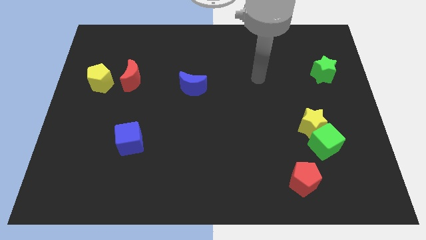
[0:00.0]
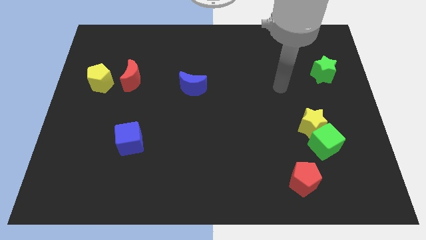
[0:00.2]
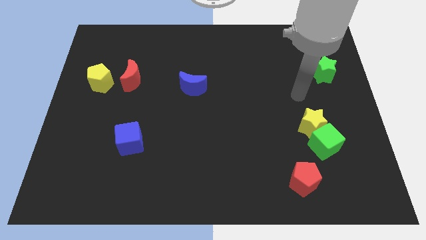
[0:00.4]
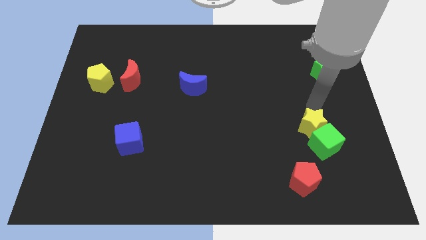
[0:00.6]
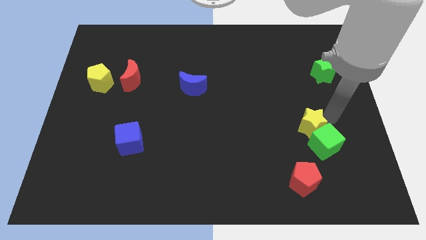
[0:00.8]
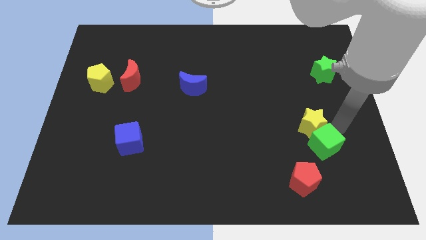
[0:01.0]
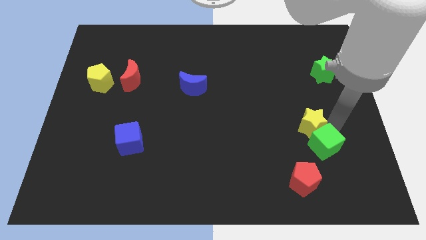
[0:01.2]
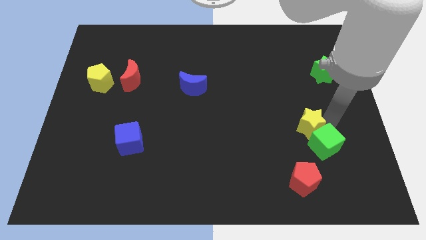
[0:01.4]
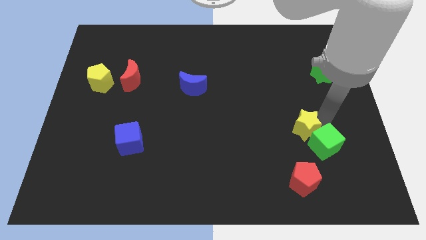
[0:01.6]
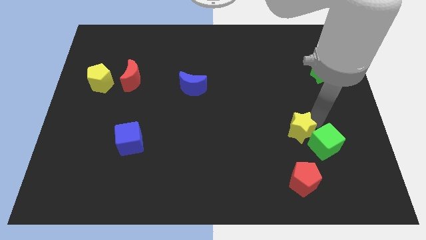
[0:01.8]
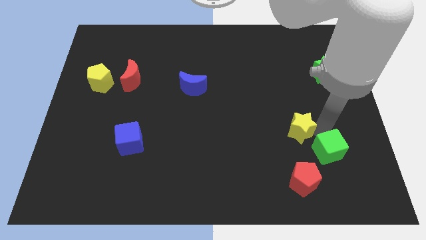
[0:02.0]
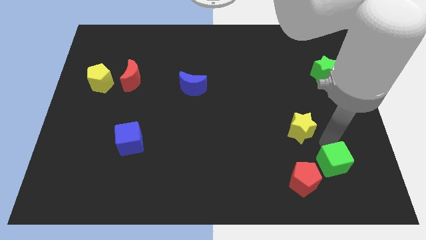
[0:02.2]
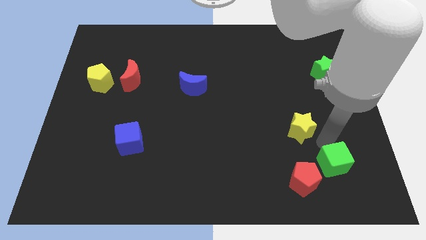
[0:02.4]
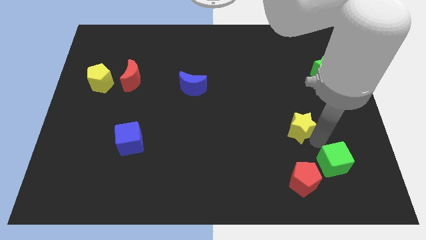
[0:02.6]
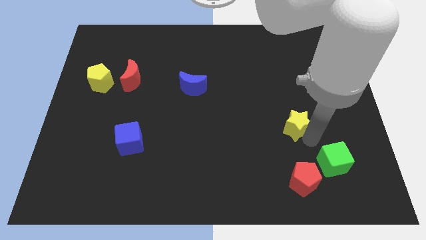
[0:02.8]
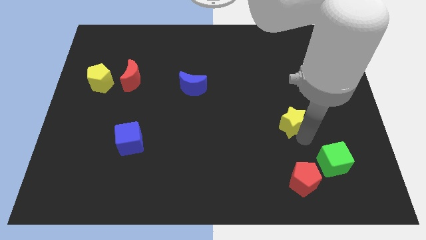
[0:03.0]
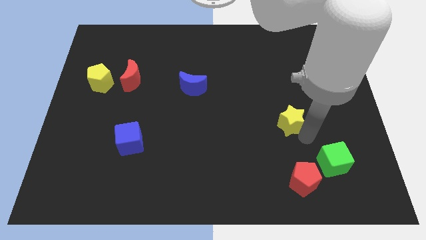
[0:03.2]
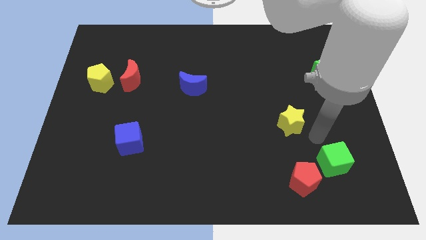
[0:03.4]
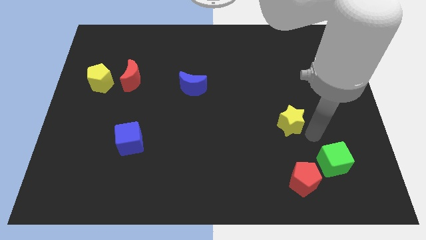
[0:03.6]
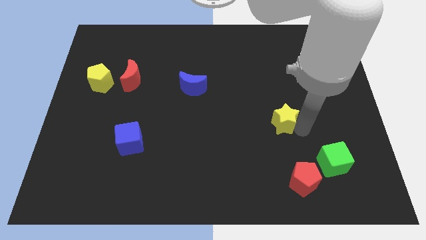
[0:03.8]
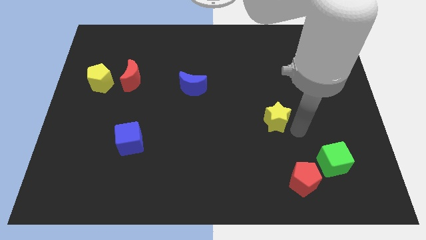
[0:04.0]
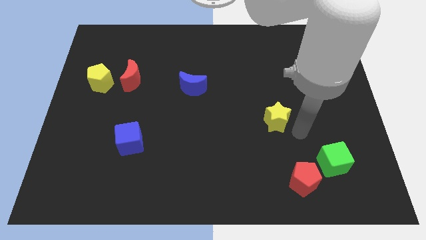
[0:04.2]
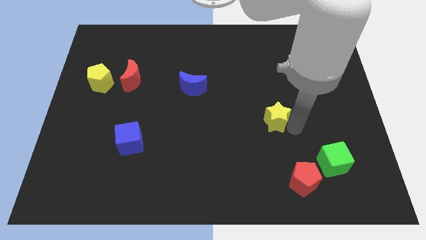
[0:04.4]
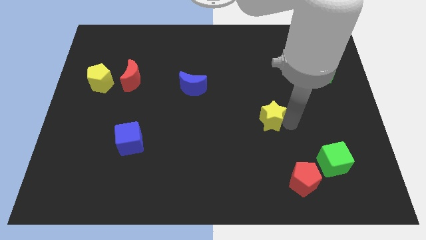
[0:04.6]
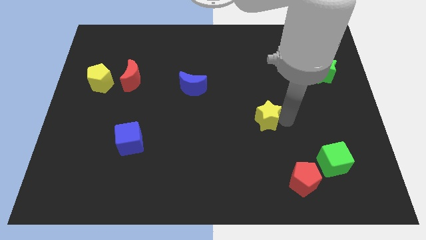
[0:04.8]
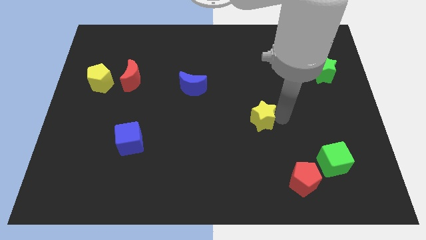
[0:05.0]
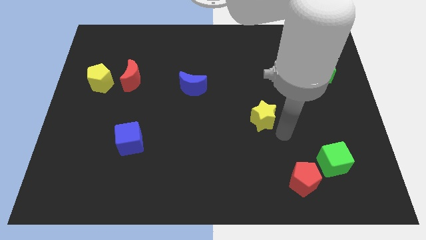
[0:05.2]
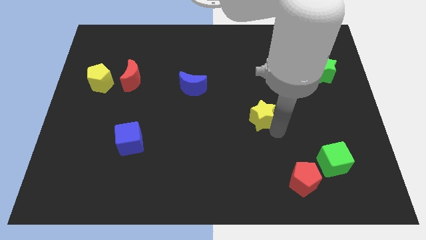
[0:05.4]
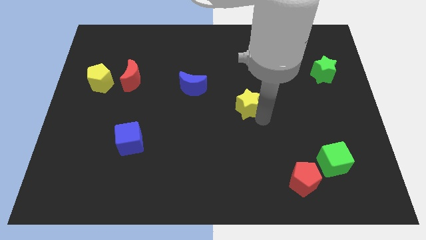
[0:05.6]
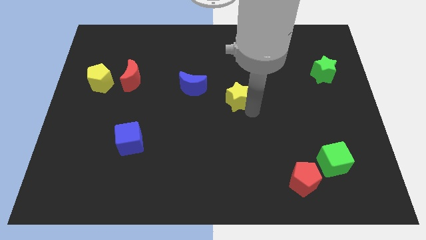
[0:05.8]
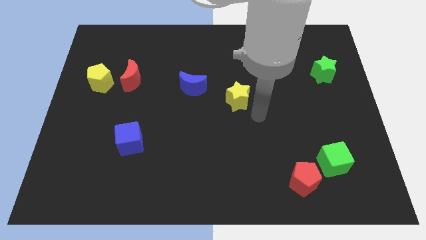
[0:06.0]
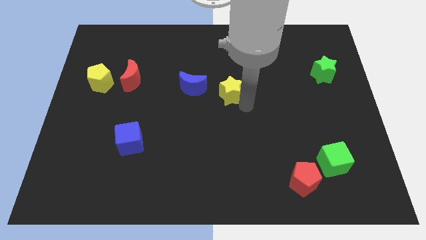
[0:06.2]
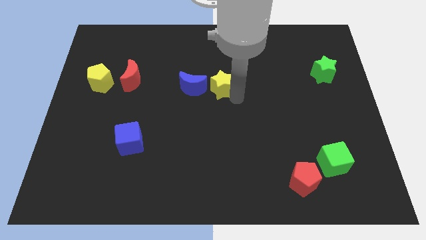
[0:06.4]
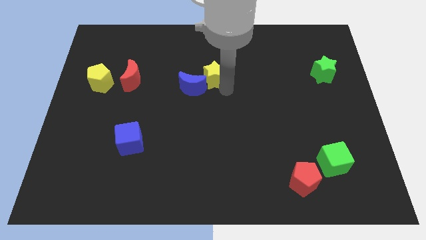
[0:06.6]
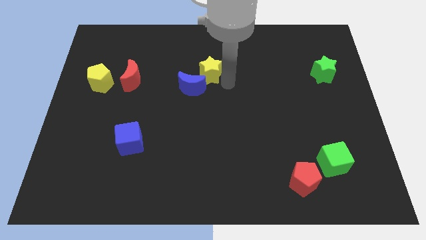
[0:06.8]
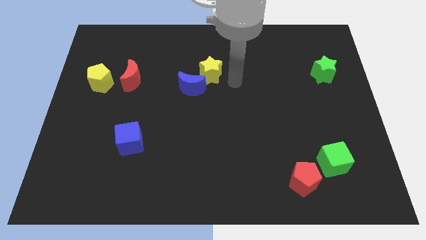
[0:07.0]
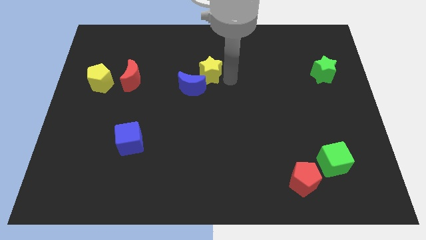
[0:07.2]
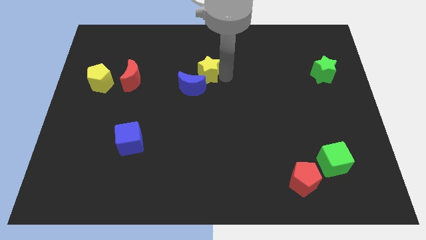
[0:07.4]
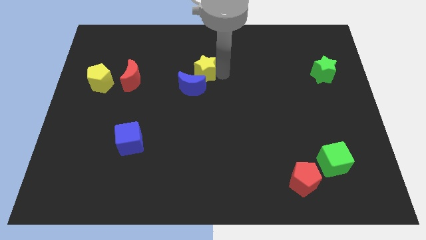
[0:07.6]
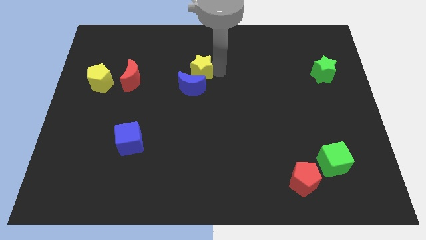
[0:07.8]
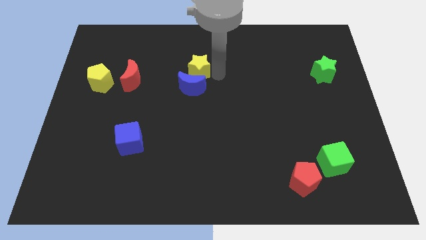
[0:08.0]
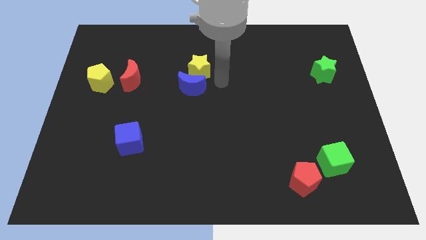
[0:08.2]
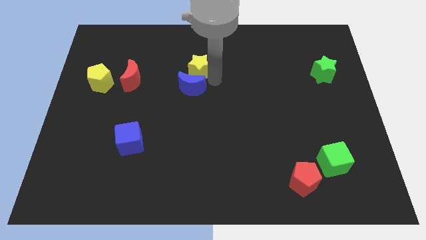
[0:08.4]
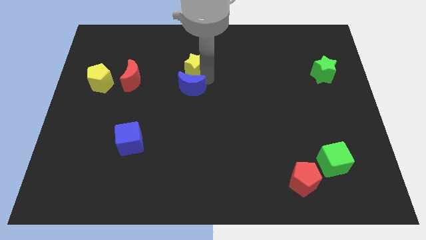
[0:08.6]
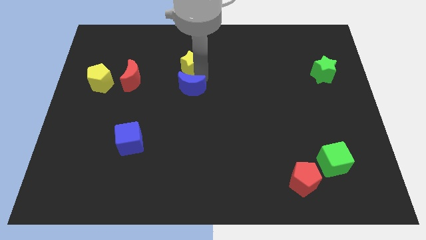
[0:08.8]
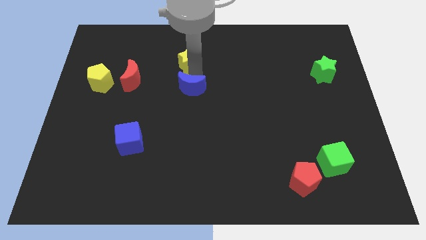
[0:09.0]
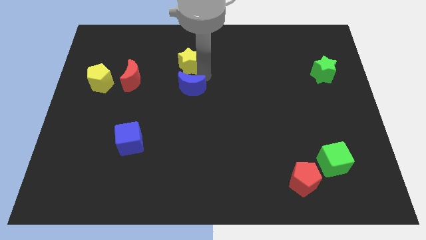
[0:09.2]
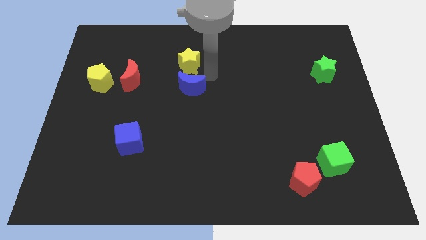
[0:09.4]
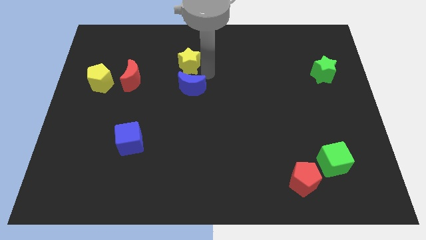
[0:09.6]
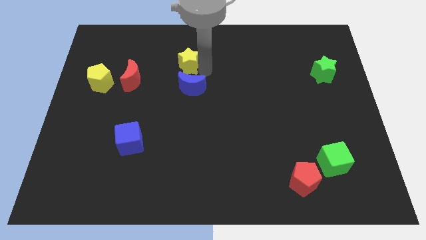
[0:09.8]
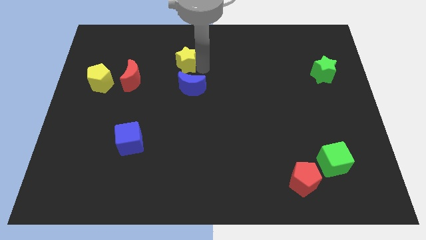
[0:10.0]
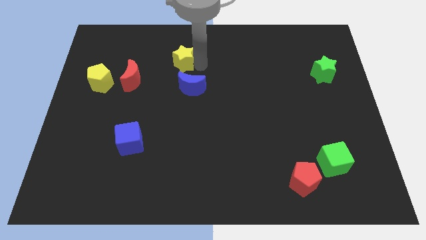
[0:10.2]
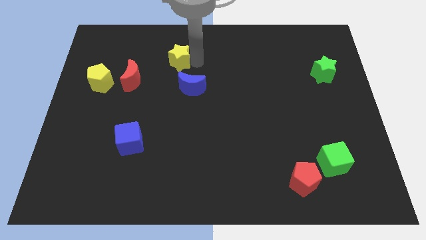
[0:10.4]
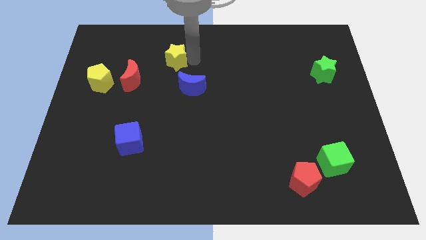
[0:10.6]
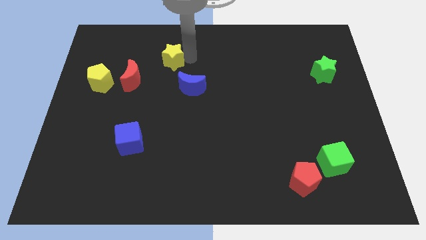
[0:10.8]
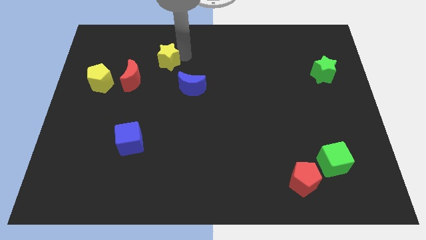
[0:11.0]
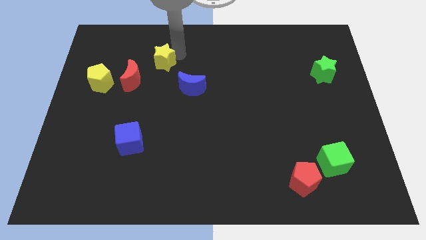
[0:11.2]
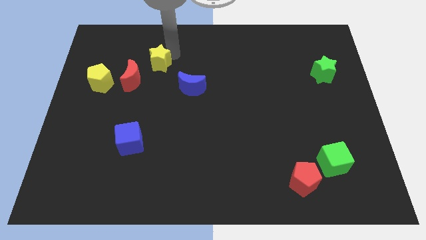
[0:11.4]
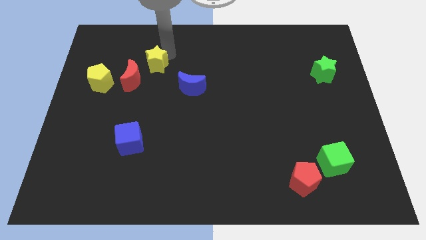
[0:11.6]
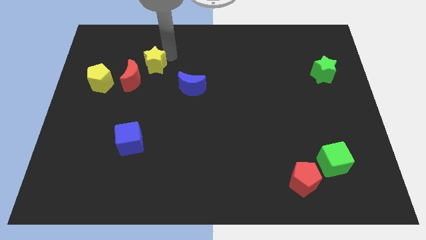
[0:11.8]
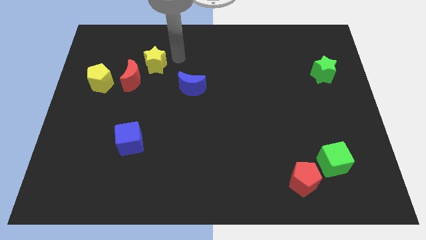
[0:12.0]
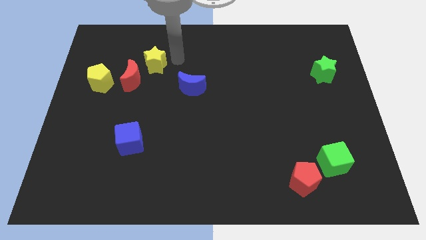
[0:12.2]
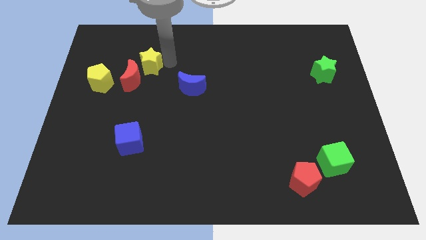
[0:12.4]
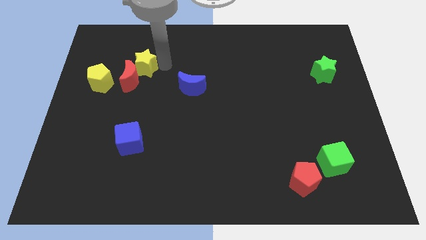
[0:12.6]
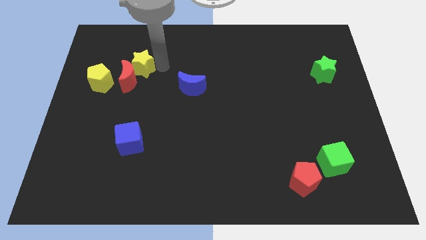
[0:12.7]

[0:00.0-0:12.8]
move the yellow star to the top right of the yellow pentagon
